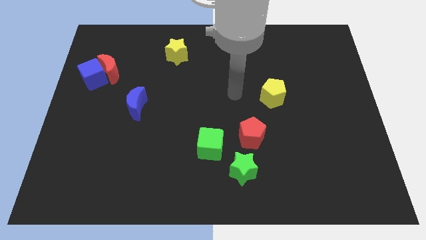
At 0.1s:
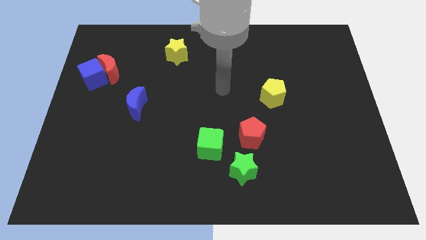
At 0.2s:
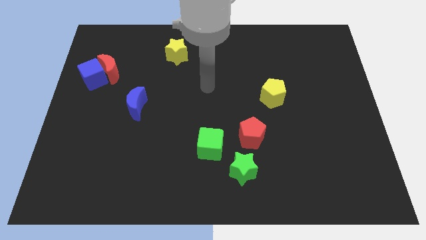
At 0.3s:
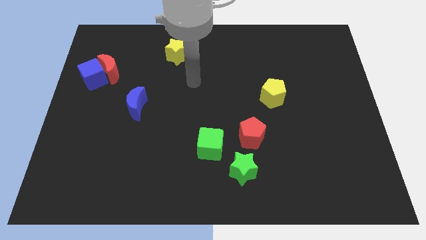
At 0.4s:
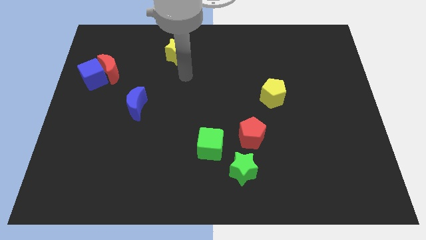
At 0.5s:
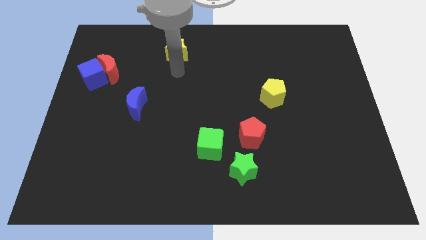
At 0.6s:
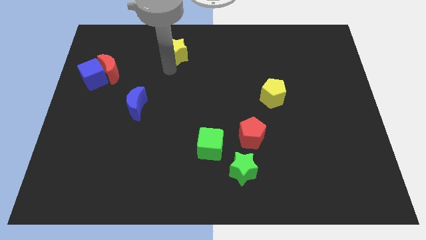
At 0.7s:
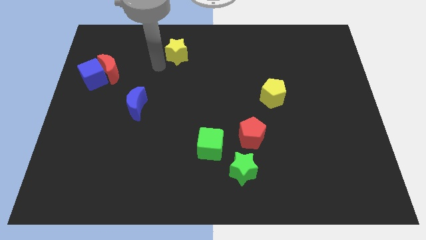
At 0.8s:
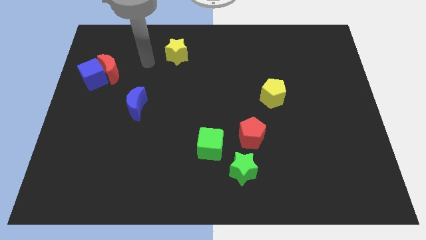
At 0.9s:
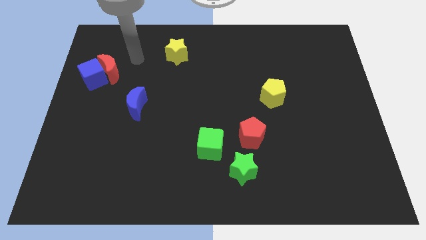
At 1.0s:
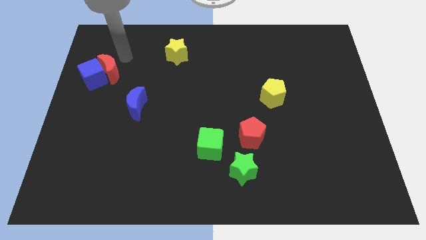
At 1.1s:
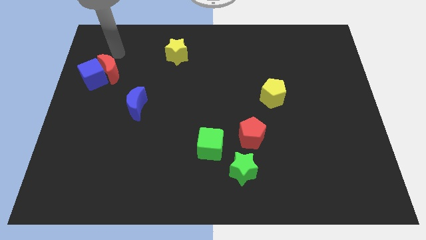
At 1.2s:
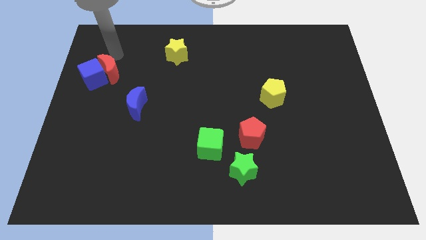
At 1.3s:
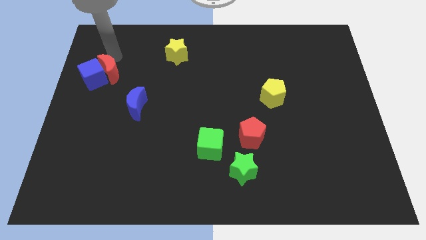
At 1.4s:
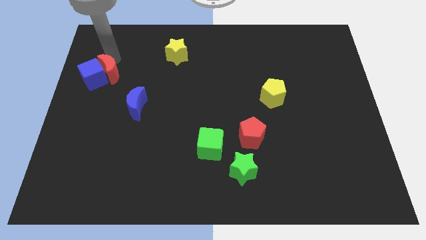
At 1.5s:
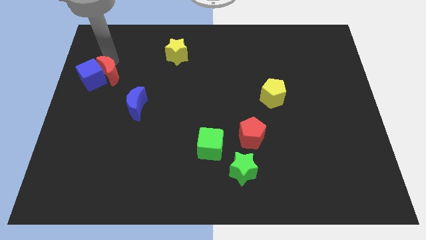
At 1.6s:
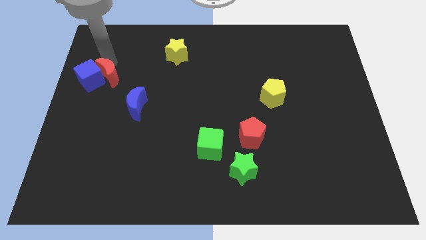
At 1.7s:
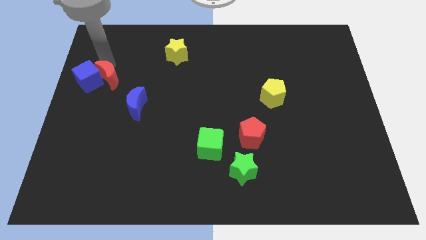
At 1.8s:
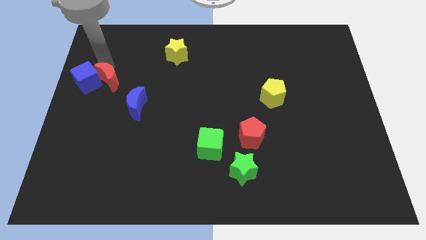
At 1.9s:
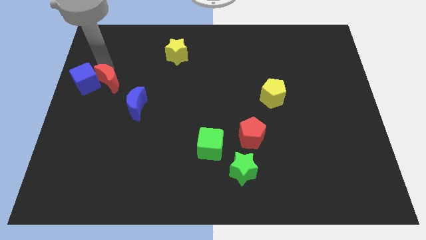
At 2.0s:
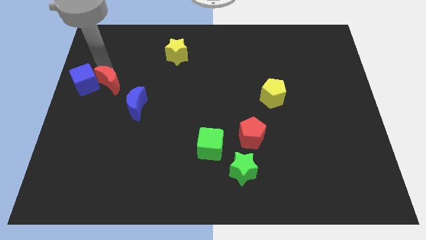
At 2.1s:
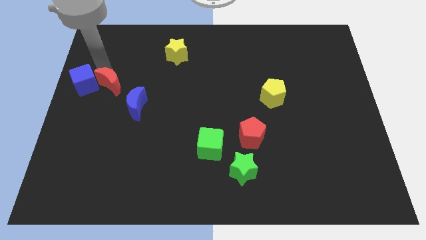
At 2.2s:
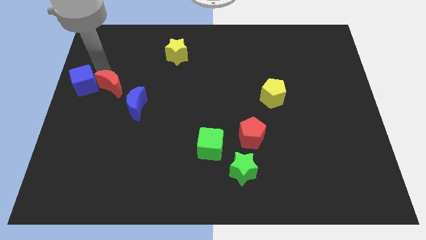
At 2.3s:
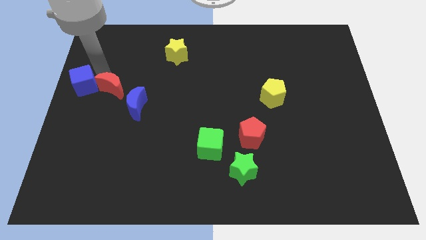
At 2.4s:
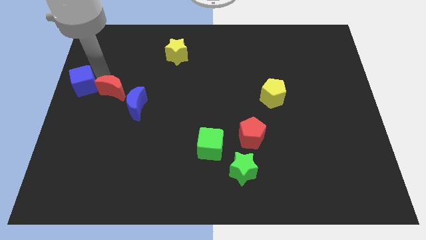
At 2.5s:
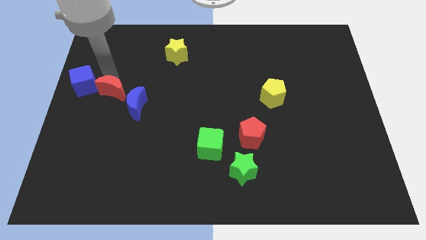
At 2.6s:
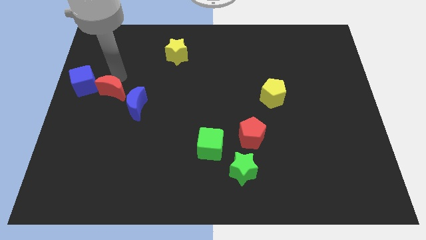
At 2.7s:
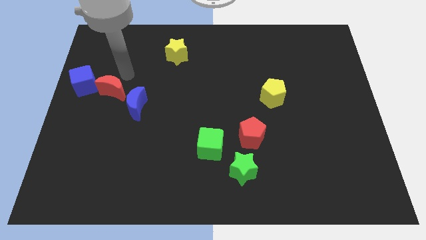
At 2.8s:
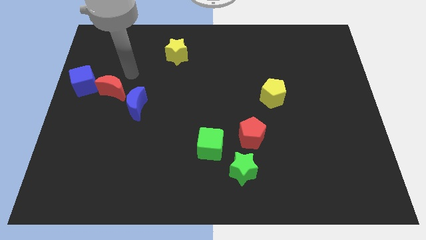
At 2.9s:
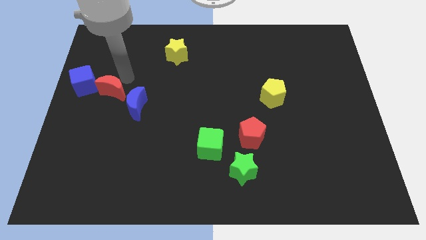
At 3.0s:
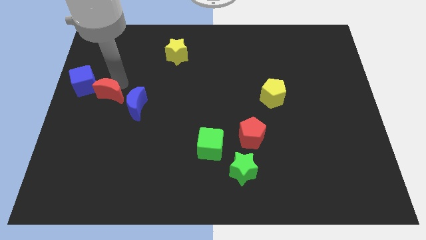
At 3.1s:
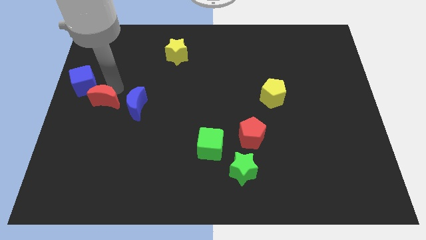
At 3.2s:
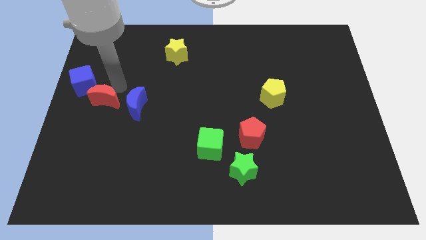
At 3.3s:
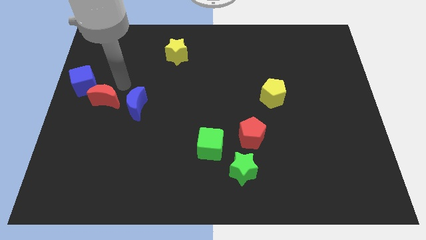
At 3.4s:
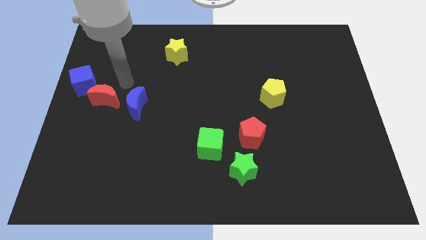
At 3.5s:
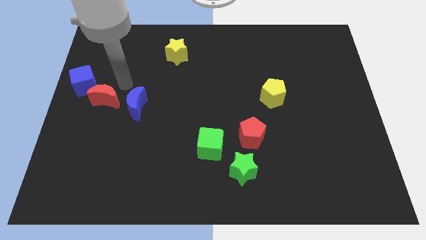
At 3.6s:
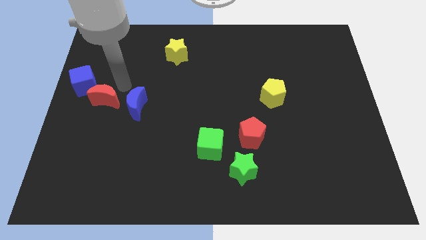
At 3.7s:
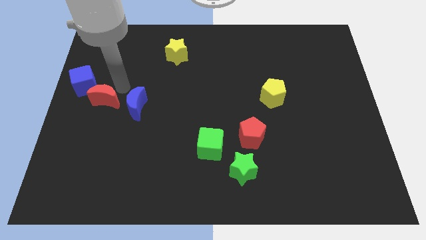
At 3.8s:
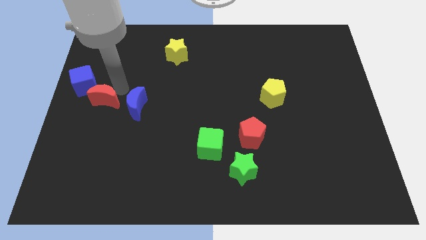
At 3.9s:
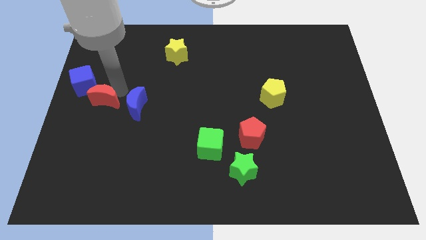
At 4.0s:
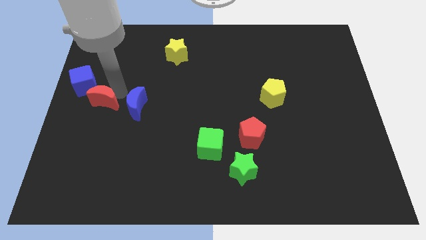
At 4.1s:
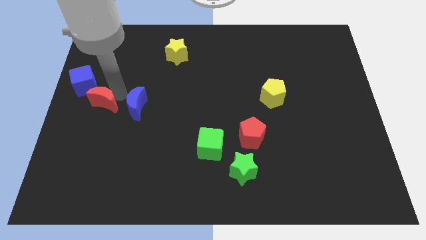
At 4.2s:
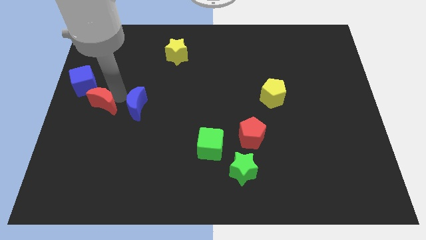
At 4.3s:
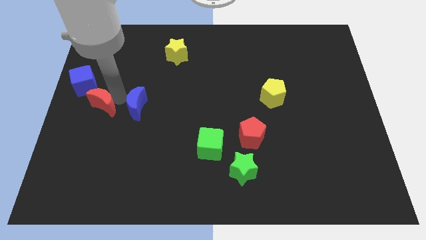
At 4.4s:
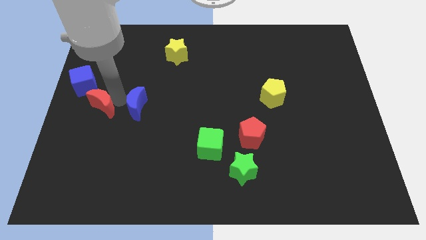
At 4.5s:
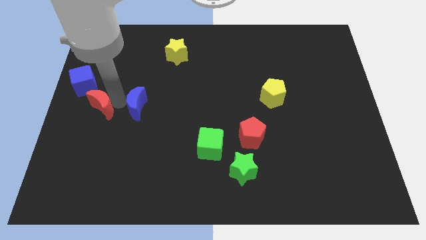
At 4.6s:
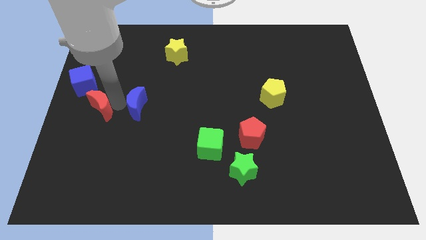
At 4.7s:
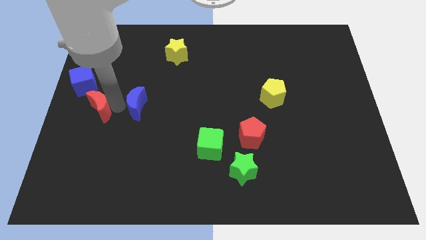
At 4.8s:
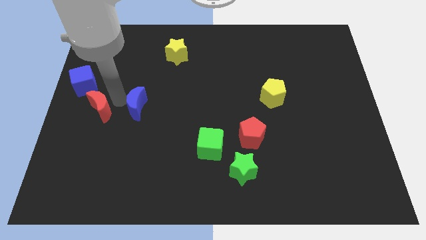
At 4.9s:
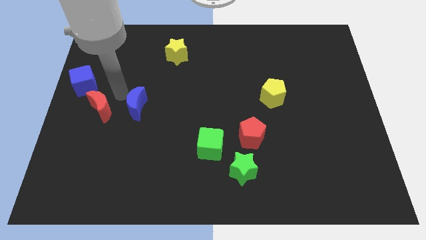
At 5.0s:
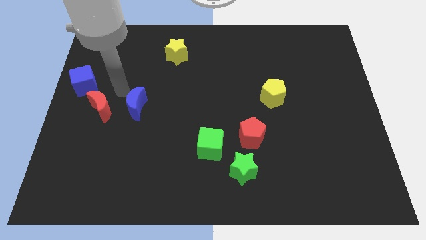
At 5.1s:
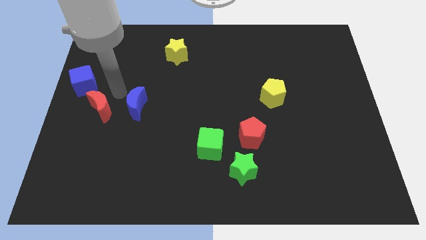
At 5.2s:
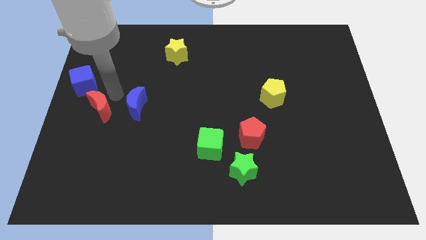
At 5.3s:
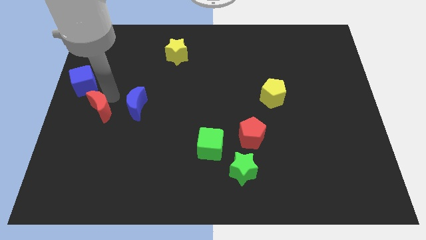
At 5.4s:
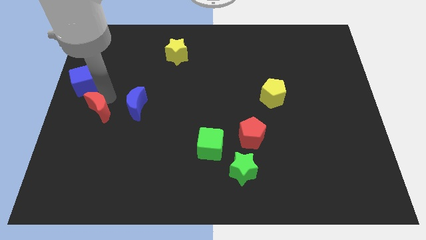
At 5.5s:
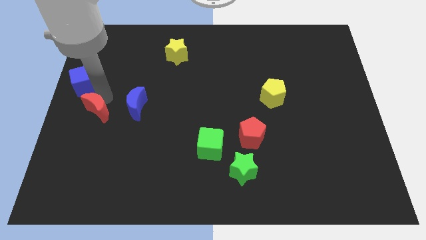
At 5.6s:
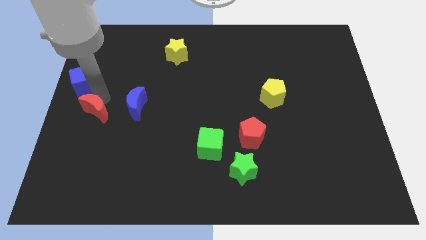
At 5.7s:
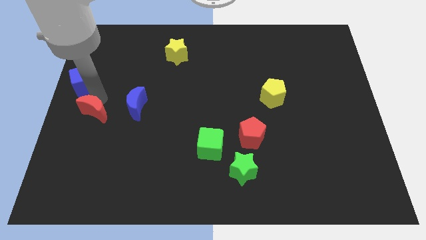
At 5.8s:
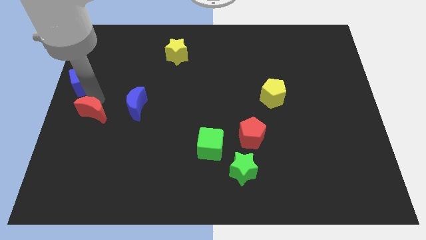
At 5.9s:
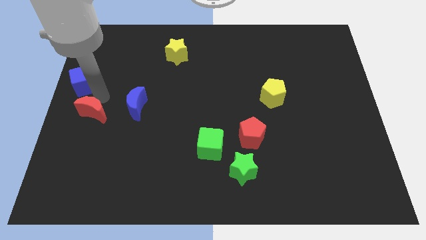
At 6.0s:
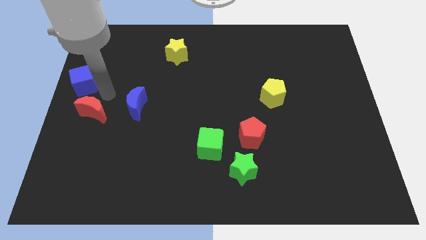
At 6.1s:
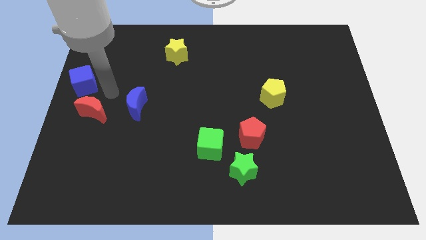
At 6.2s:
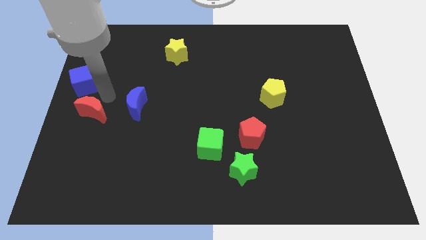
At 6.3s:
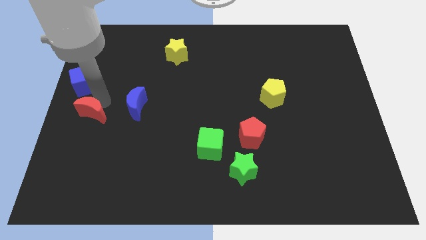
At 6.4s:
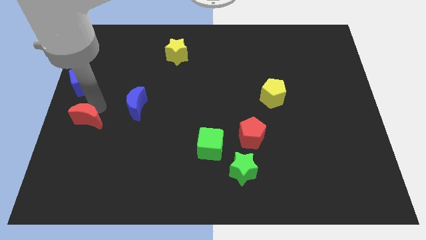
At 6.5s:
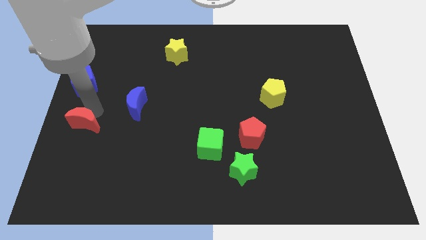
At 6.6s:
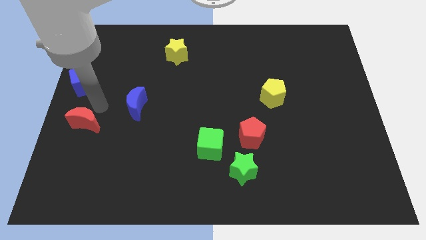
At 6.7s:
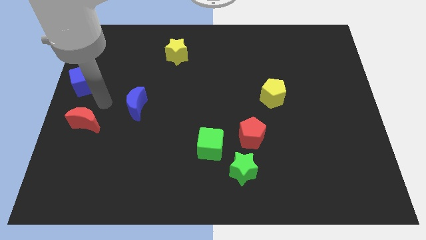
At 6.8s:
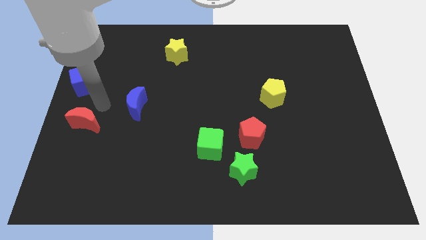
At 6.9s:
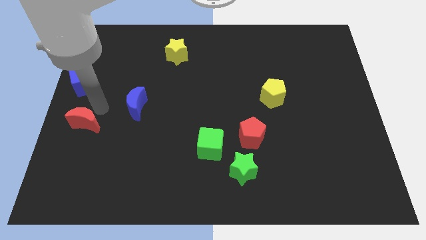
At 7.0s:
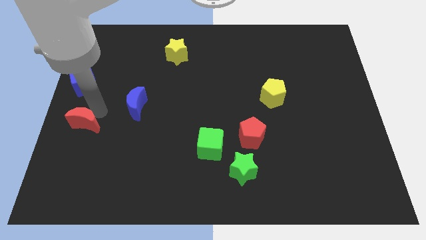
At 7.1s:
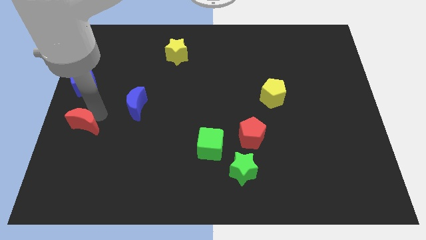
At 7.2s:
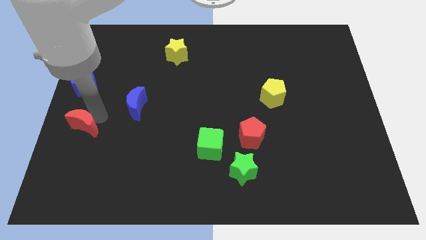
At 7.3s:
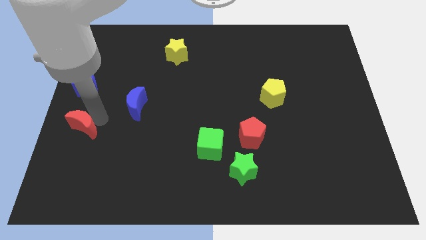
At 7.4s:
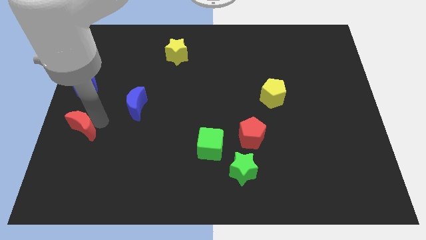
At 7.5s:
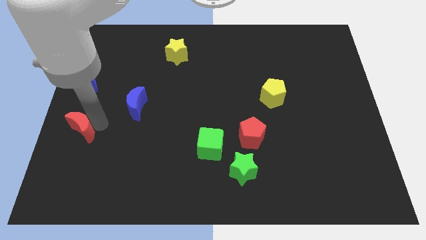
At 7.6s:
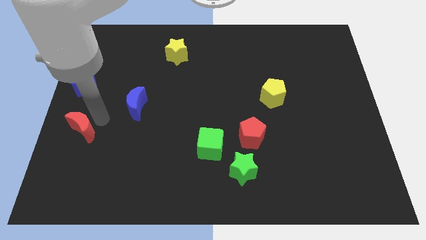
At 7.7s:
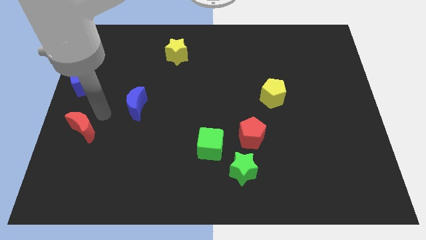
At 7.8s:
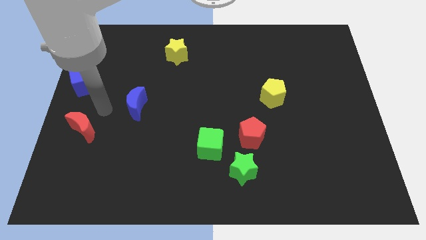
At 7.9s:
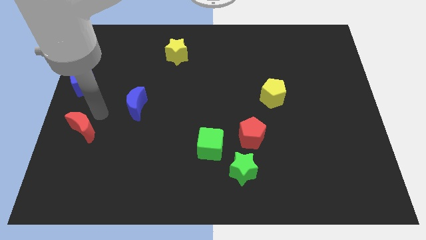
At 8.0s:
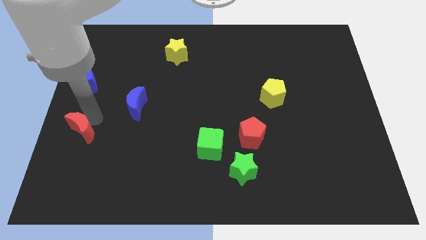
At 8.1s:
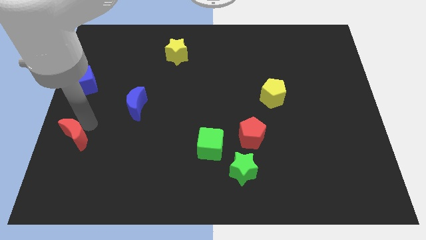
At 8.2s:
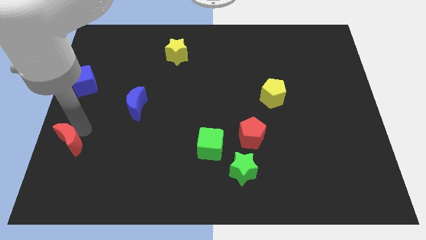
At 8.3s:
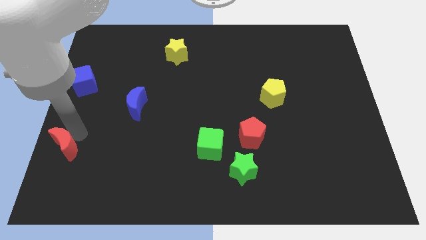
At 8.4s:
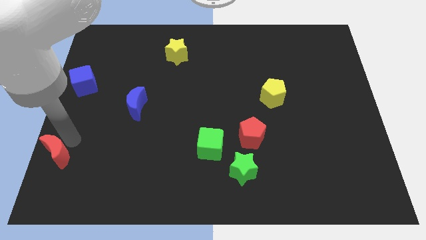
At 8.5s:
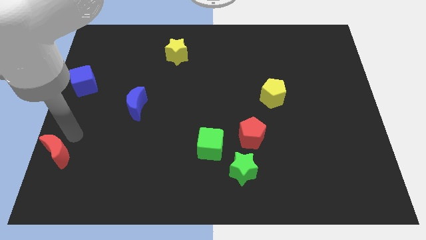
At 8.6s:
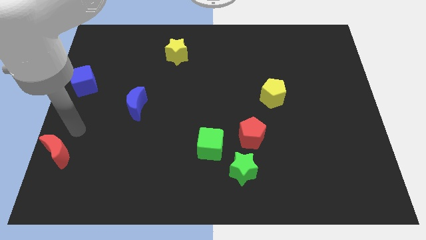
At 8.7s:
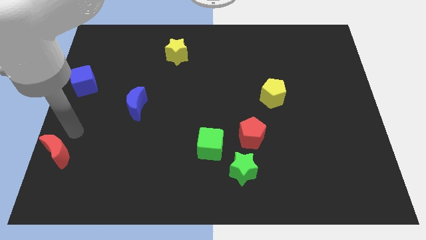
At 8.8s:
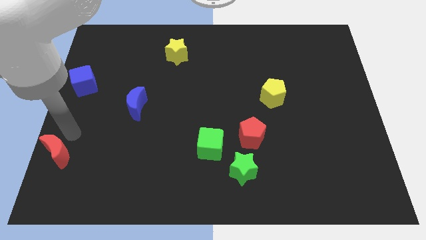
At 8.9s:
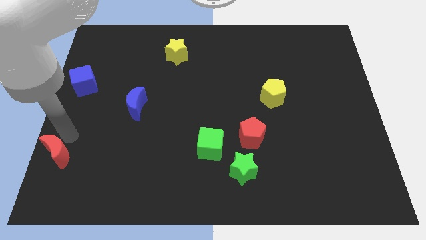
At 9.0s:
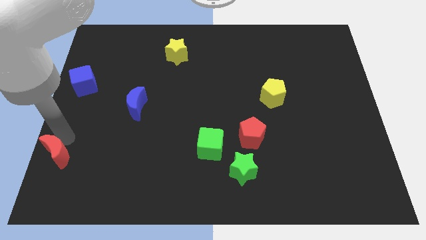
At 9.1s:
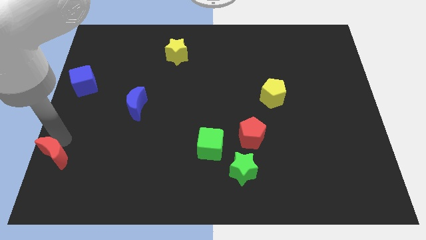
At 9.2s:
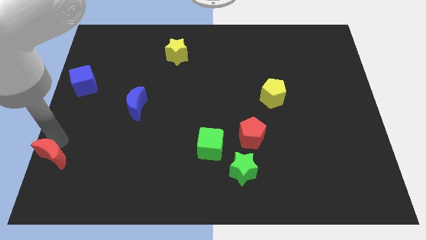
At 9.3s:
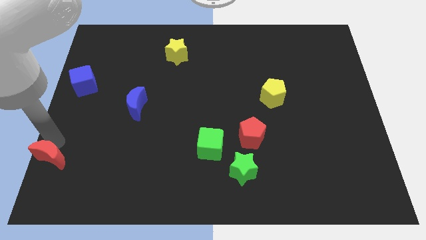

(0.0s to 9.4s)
move the red moon to the lower left corner
